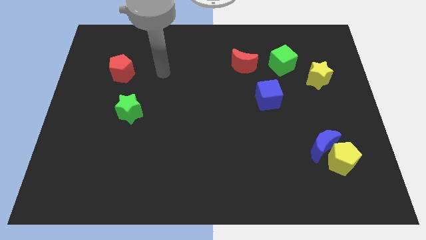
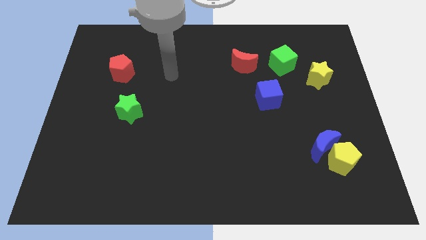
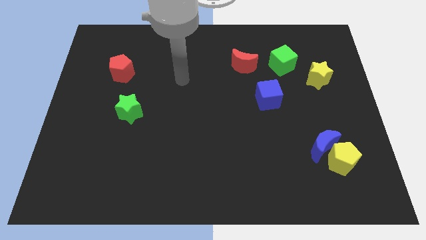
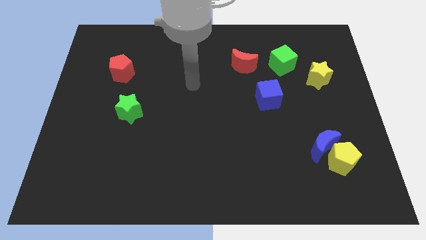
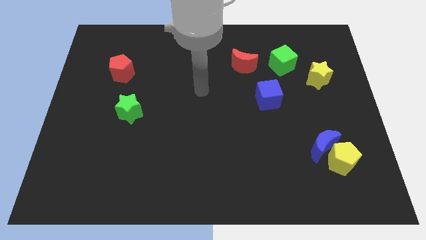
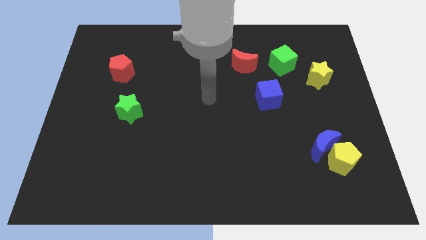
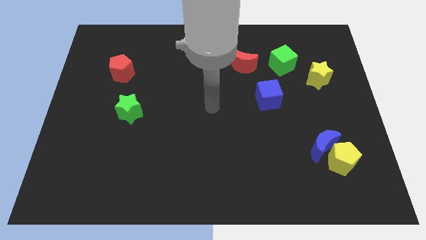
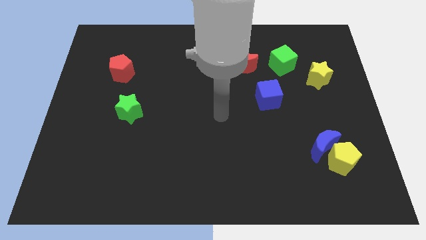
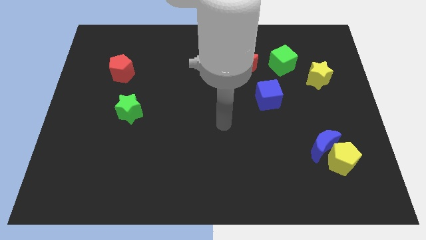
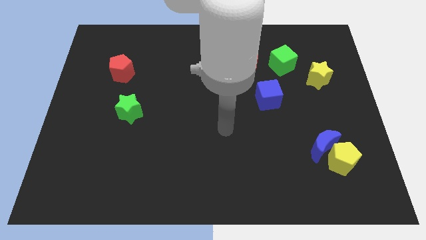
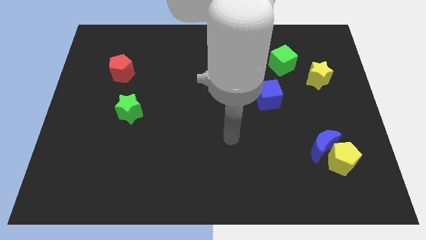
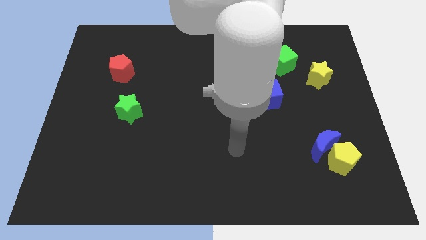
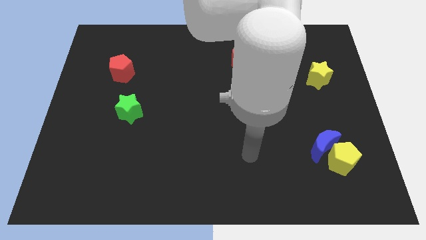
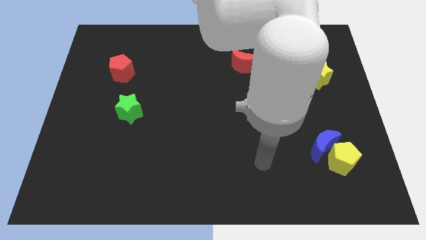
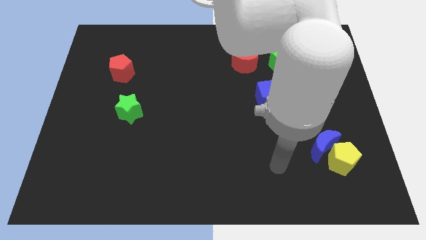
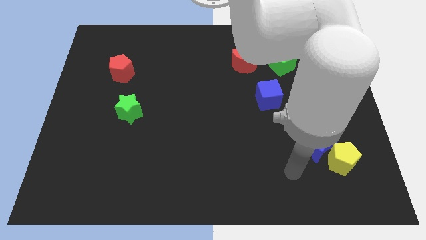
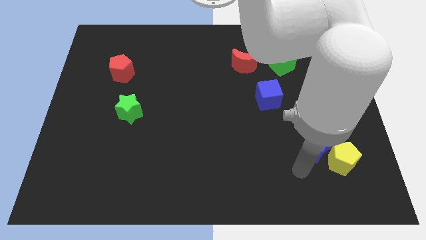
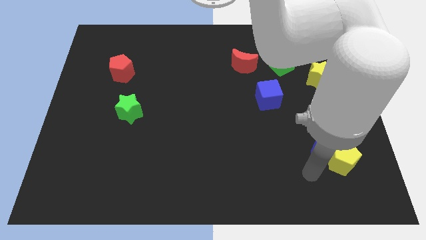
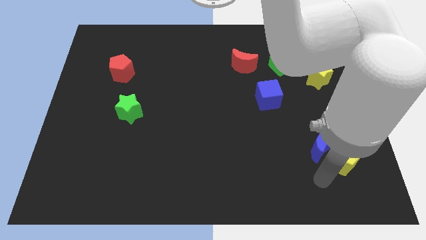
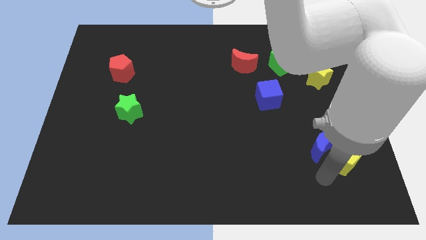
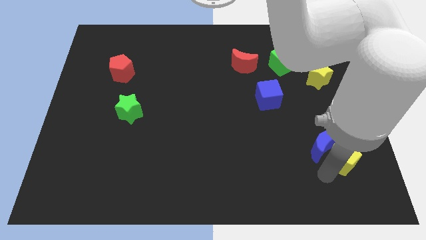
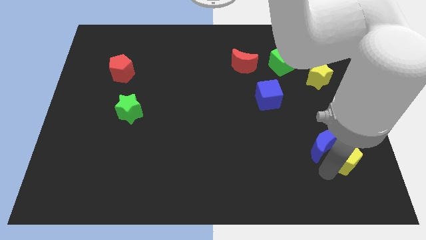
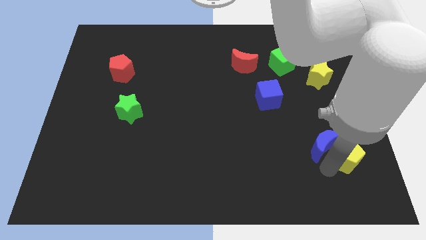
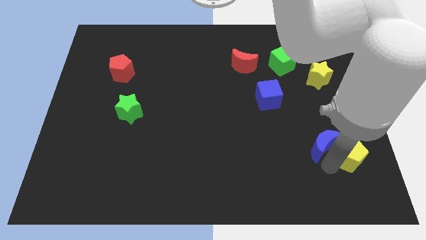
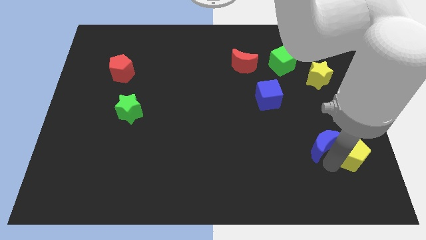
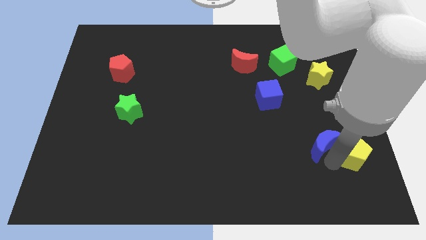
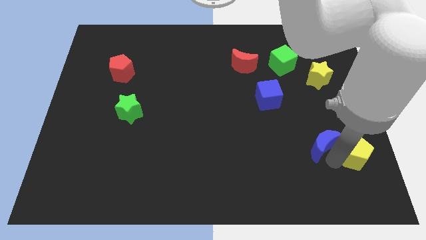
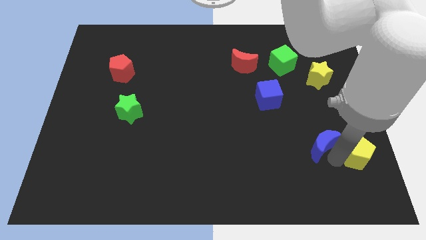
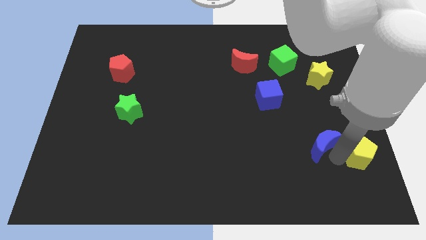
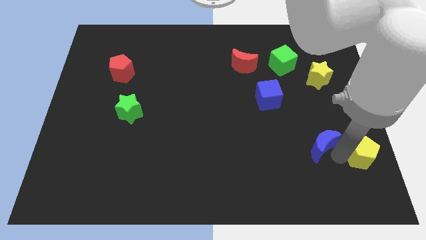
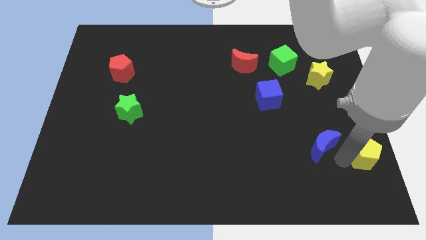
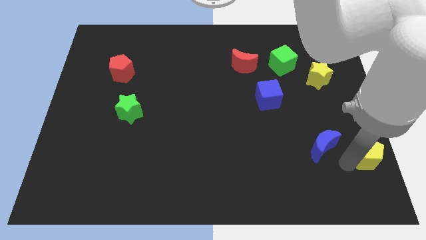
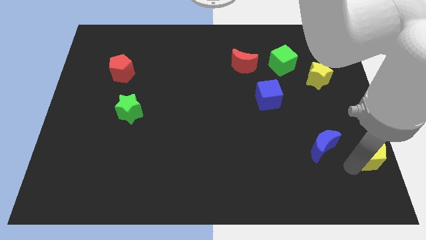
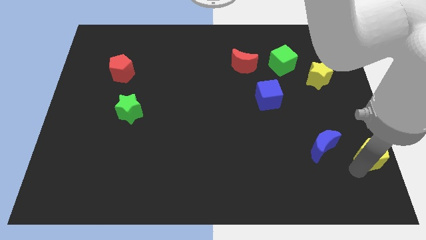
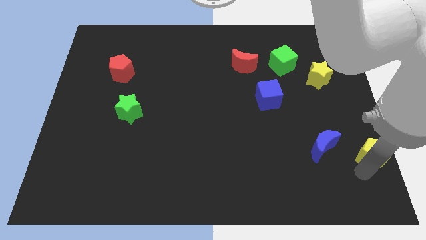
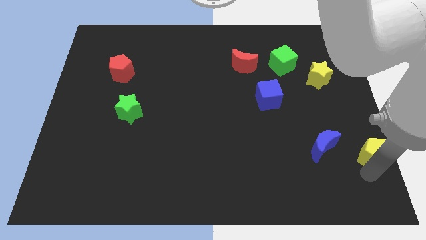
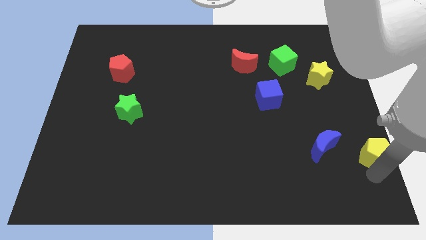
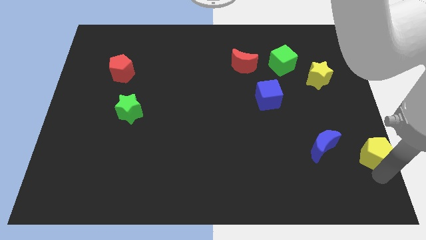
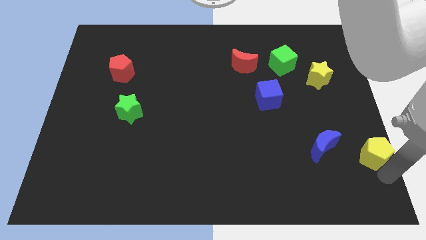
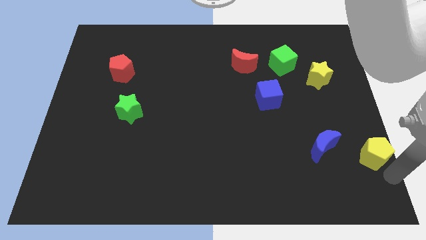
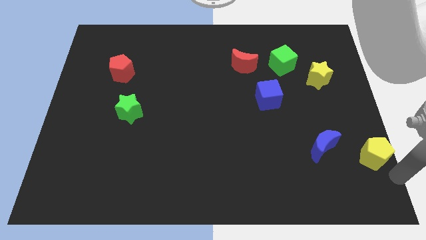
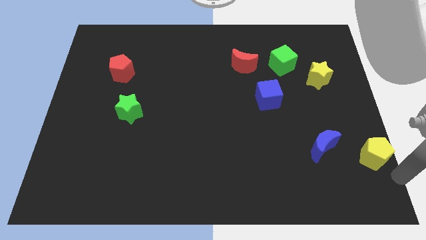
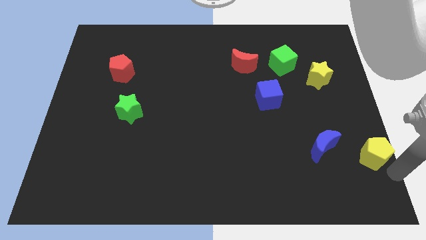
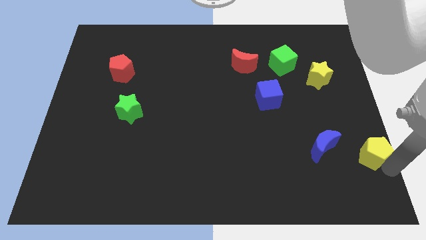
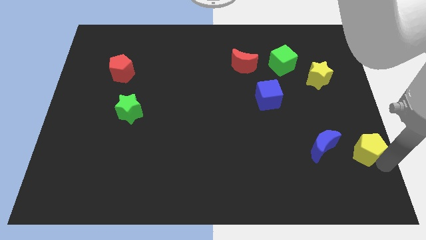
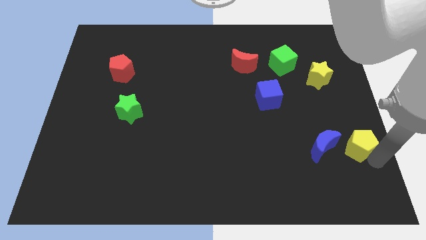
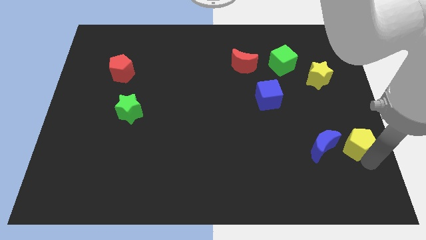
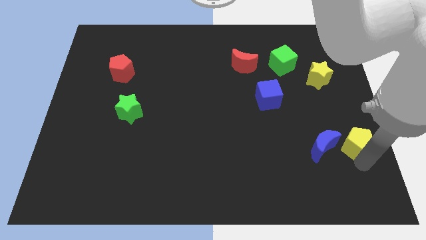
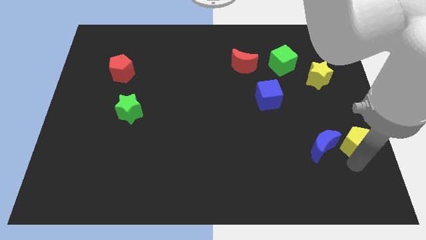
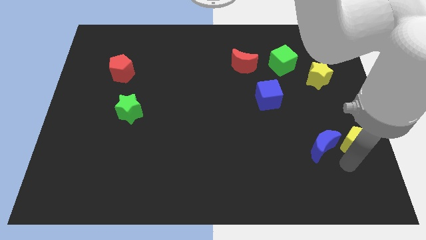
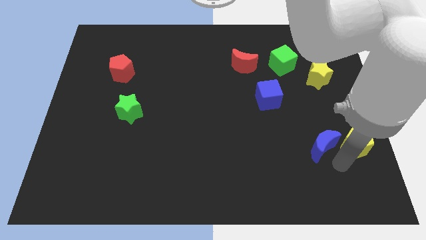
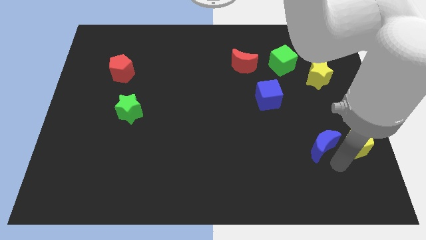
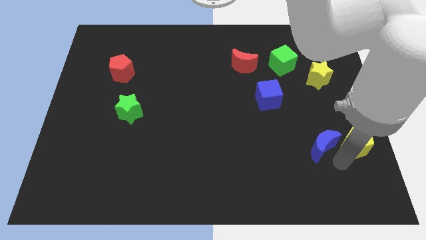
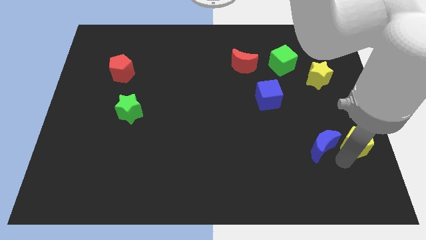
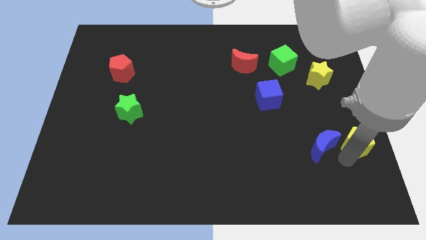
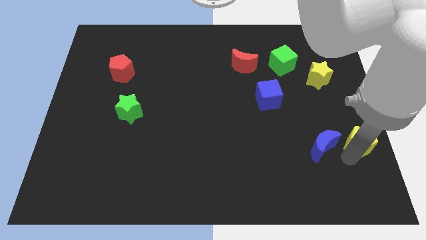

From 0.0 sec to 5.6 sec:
put the yellow pentagon to the right side

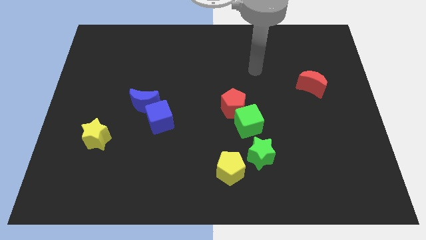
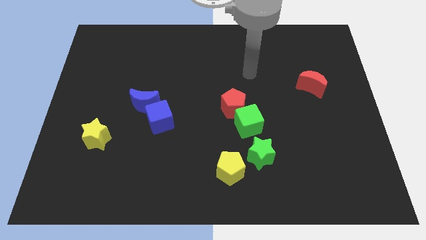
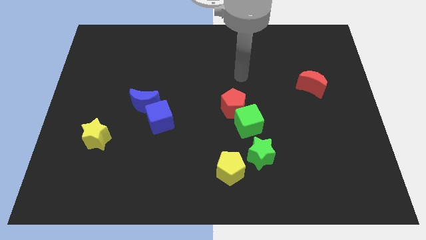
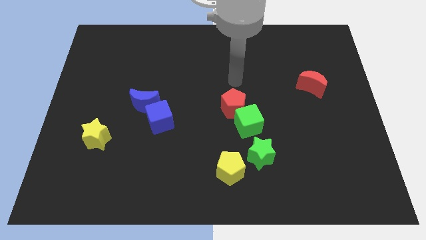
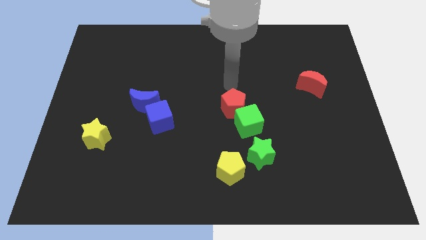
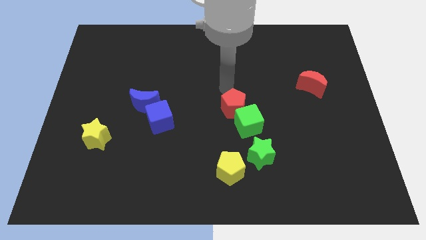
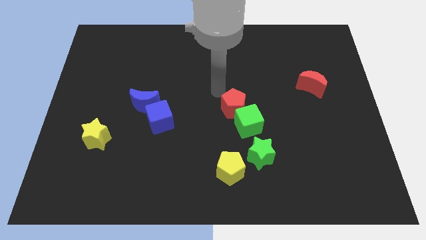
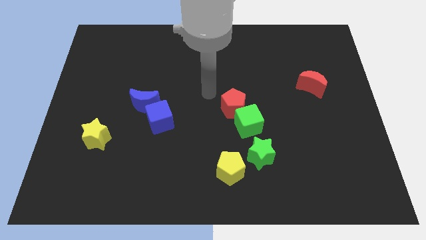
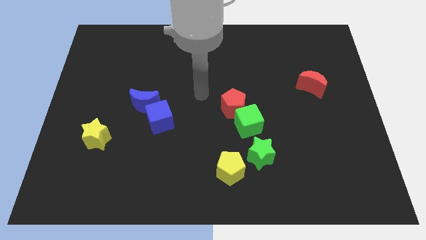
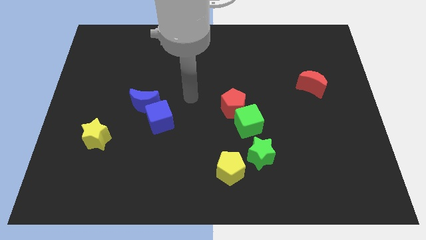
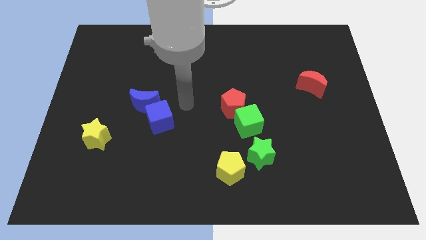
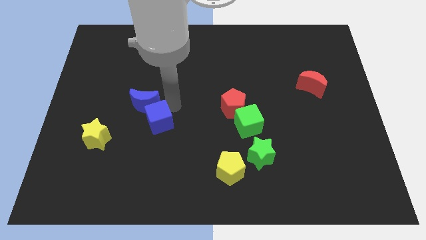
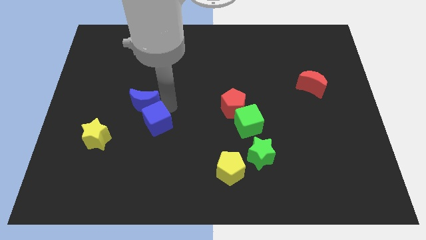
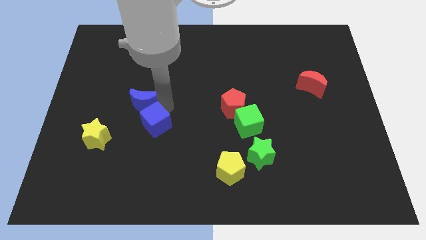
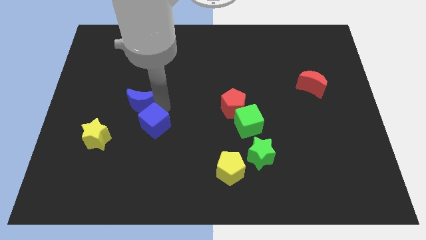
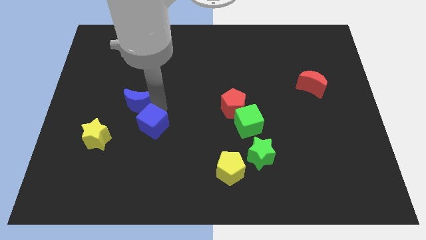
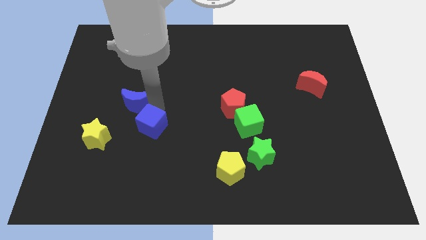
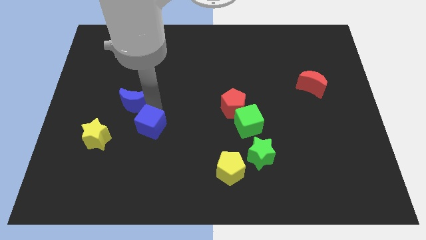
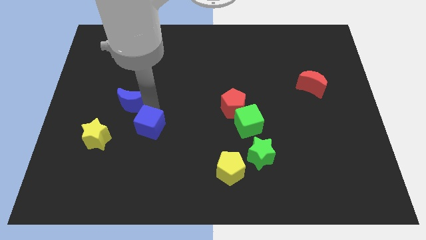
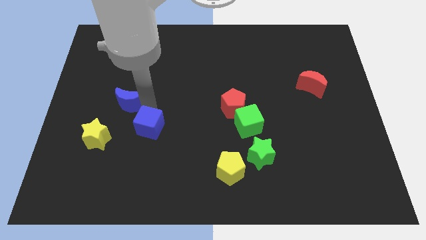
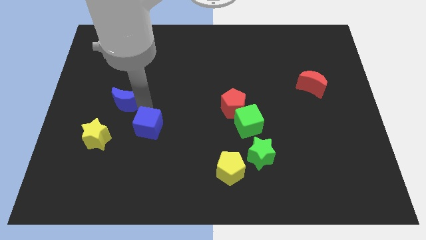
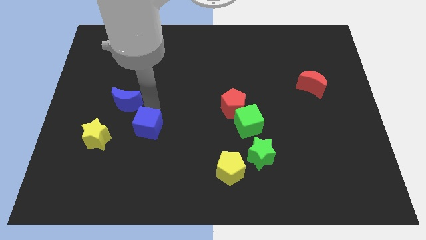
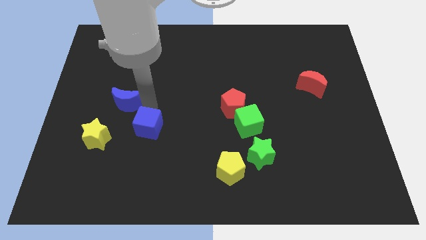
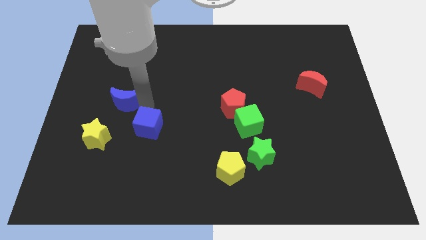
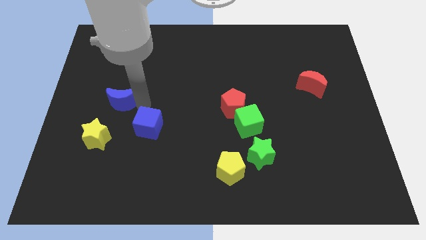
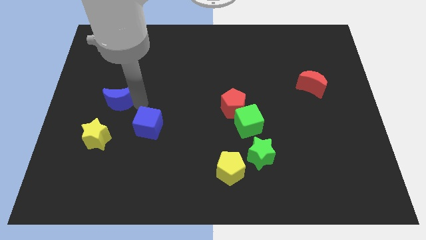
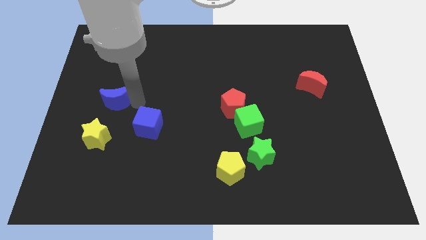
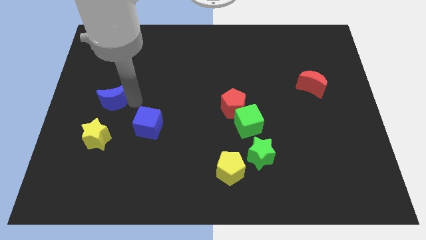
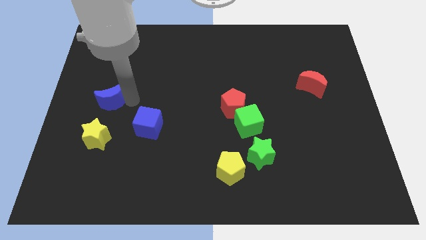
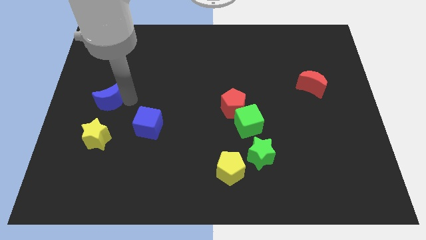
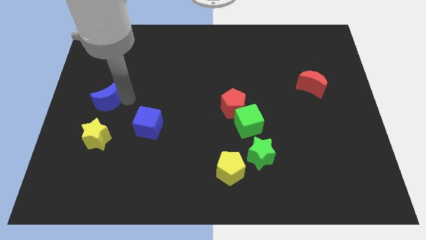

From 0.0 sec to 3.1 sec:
slide the blue moon to the left side of the board
